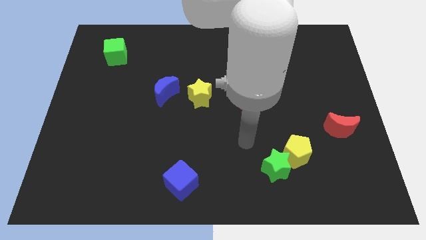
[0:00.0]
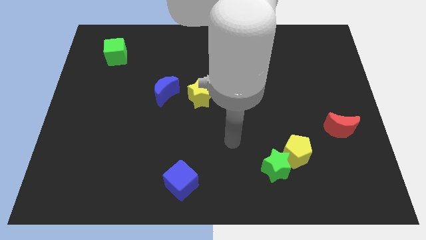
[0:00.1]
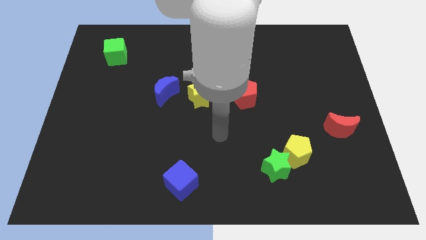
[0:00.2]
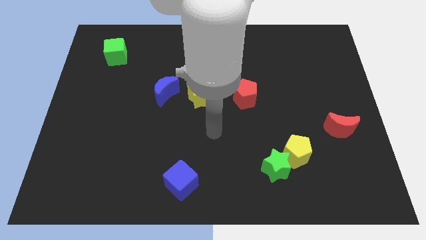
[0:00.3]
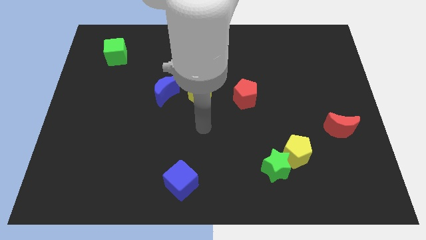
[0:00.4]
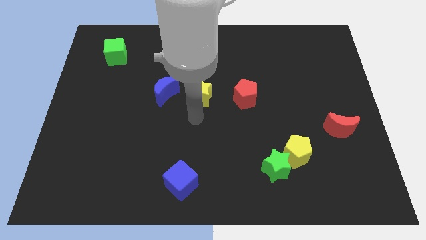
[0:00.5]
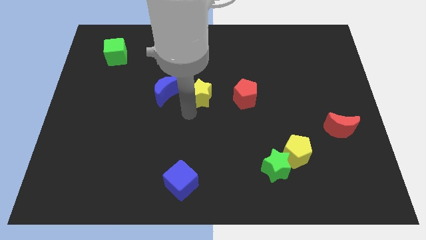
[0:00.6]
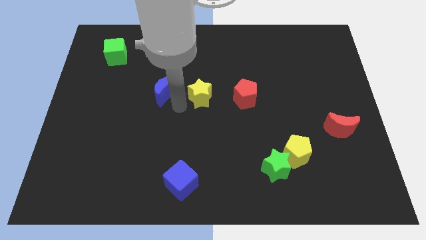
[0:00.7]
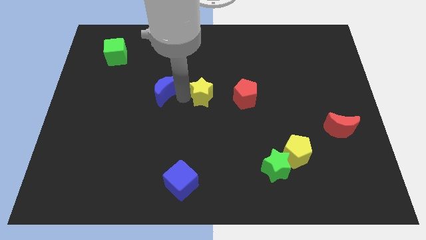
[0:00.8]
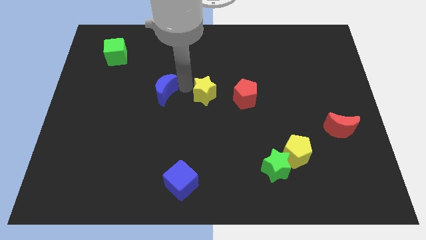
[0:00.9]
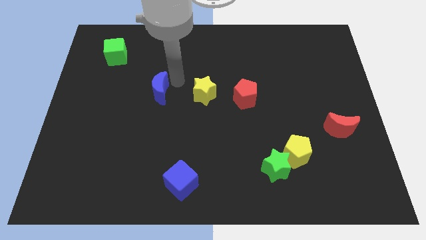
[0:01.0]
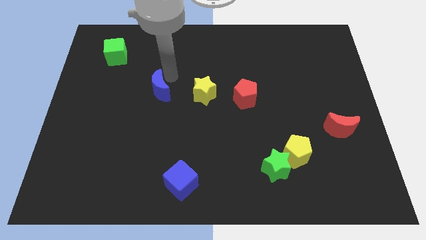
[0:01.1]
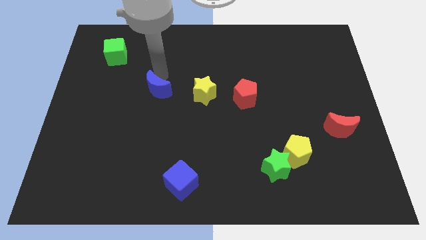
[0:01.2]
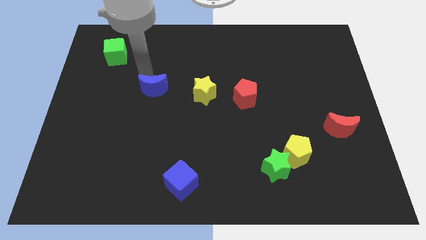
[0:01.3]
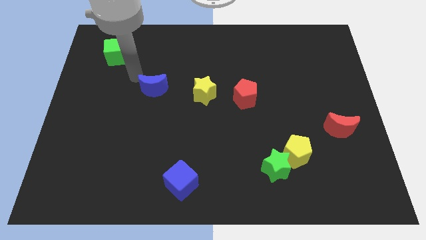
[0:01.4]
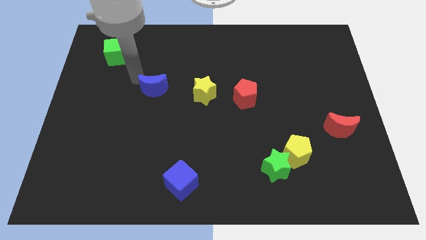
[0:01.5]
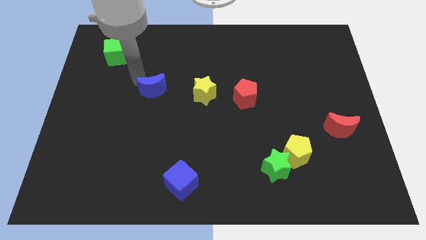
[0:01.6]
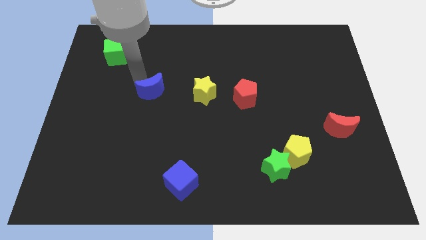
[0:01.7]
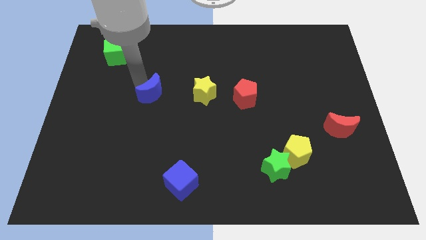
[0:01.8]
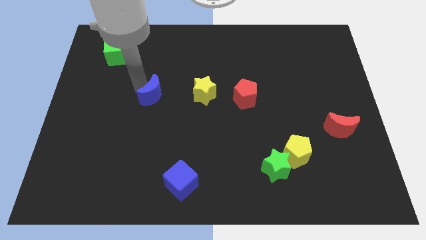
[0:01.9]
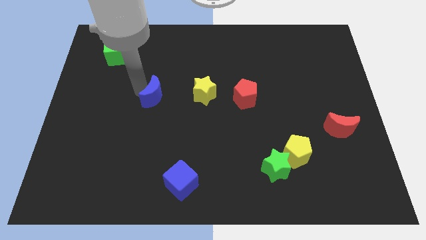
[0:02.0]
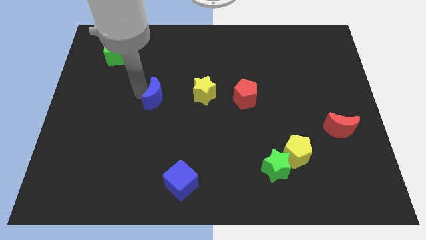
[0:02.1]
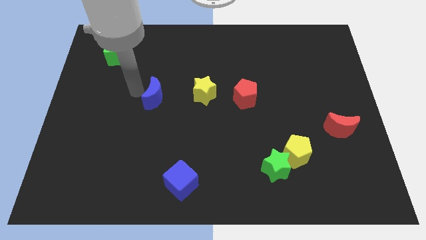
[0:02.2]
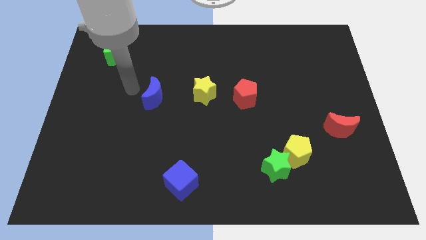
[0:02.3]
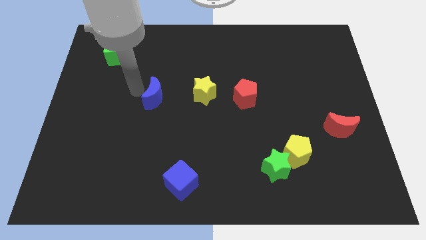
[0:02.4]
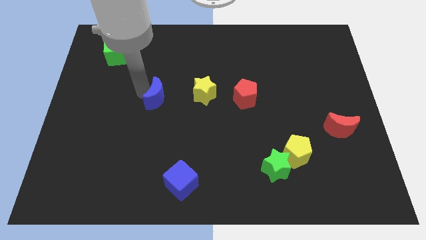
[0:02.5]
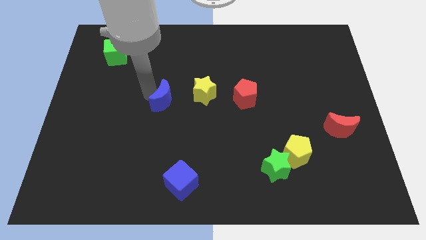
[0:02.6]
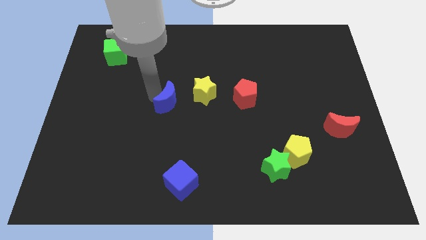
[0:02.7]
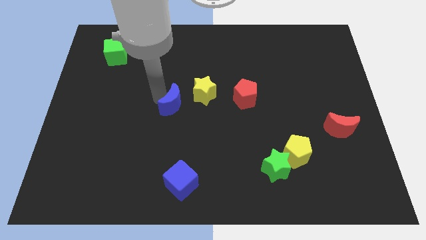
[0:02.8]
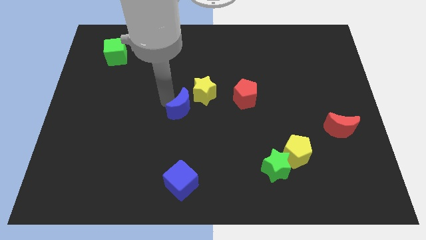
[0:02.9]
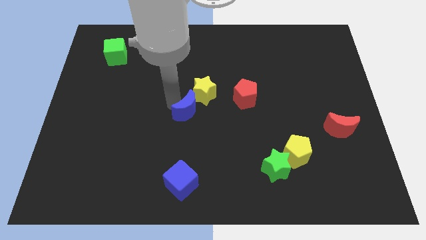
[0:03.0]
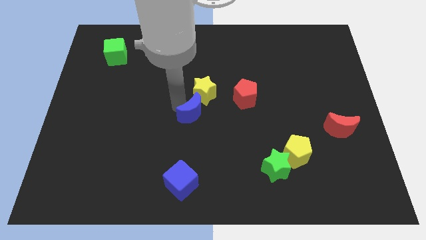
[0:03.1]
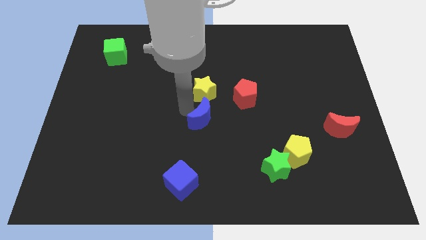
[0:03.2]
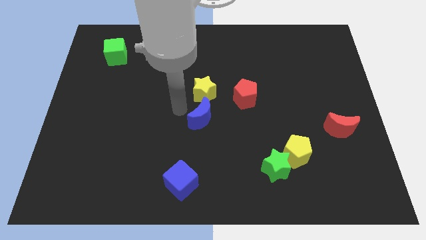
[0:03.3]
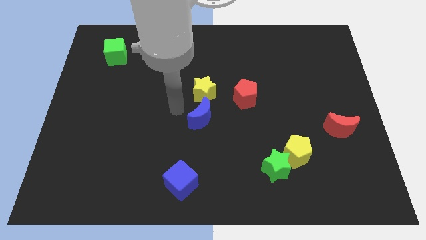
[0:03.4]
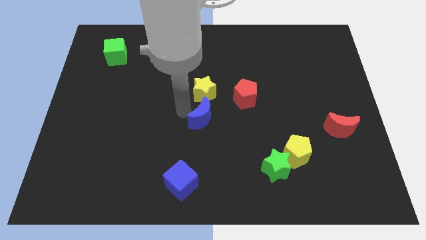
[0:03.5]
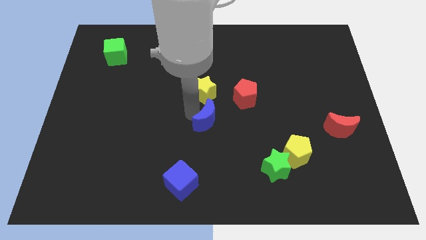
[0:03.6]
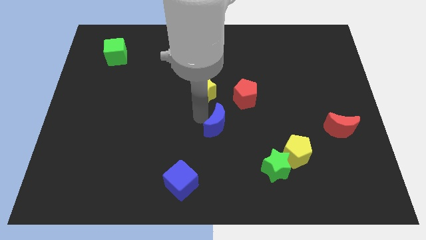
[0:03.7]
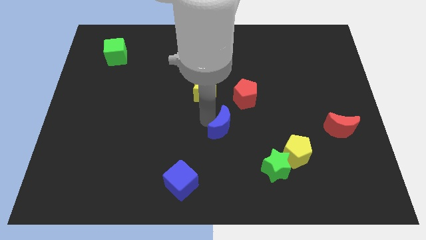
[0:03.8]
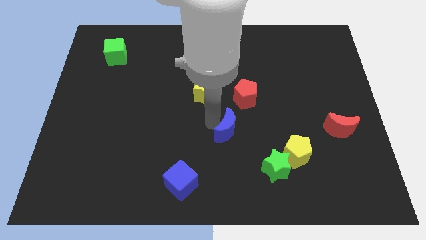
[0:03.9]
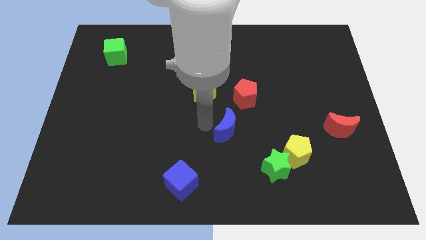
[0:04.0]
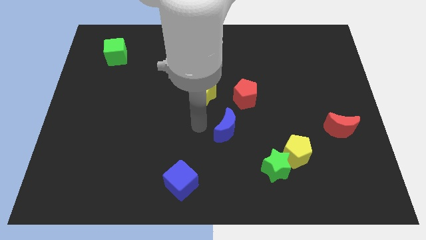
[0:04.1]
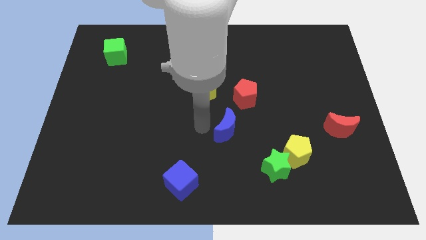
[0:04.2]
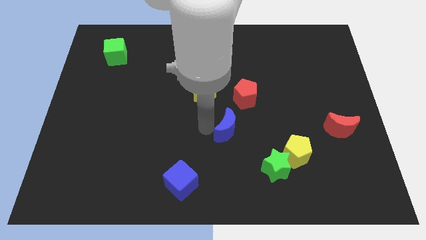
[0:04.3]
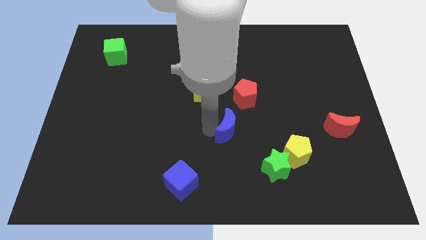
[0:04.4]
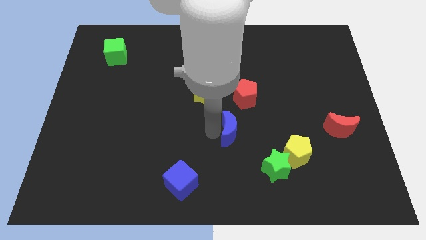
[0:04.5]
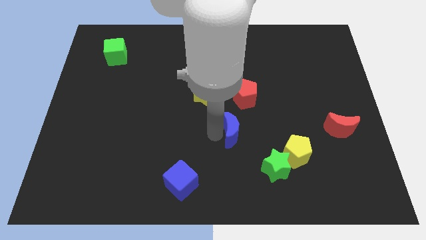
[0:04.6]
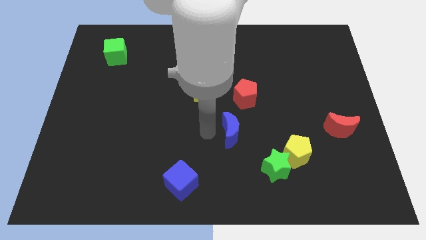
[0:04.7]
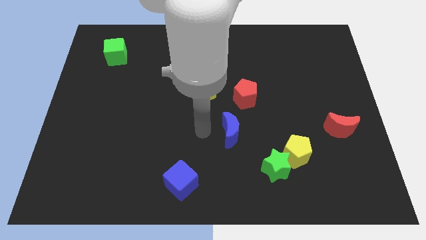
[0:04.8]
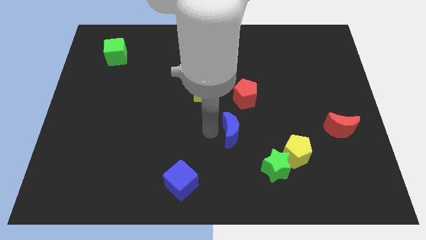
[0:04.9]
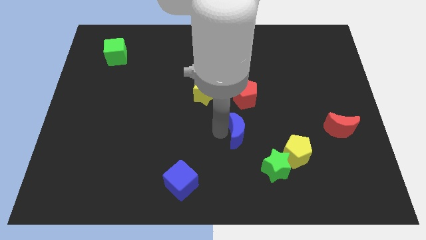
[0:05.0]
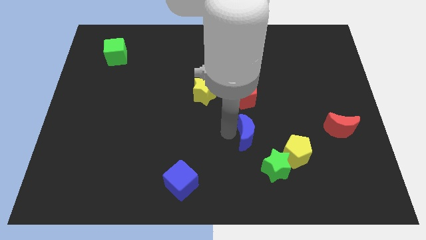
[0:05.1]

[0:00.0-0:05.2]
move the blue moon to the top left of the yellow pentagon

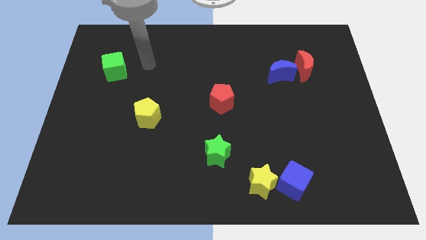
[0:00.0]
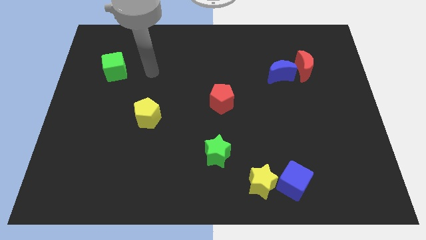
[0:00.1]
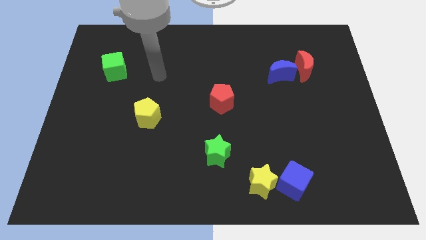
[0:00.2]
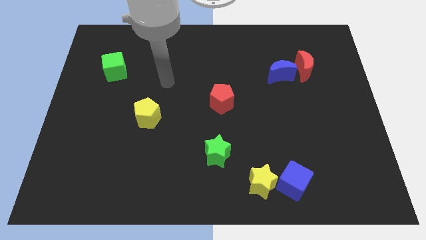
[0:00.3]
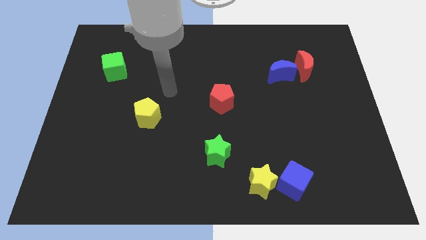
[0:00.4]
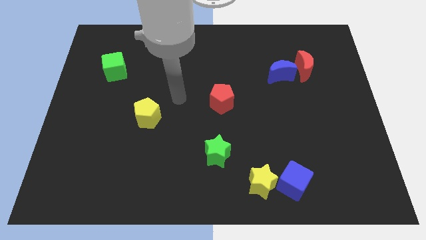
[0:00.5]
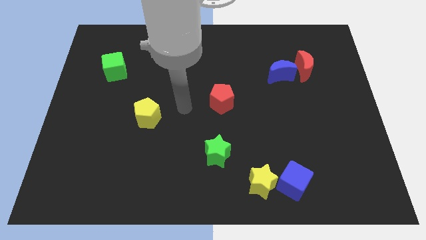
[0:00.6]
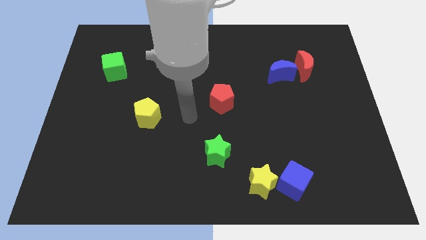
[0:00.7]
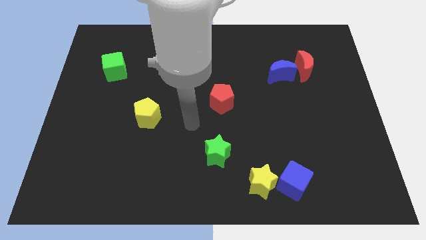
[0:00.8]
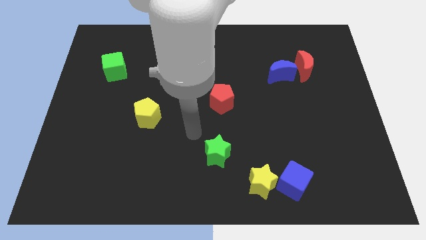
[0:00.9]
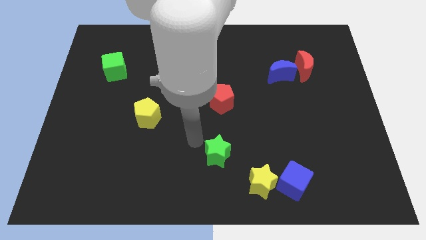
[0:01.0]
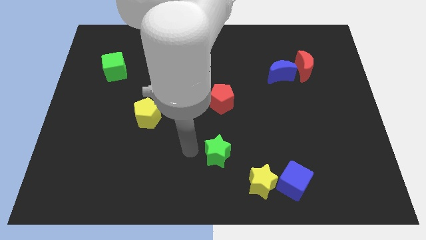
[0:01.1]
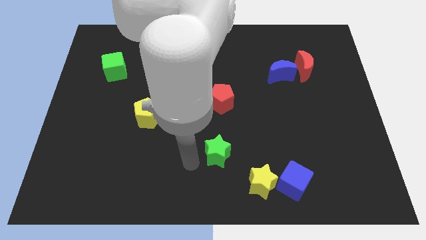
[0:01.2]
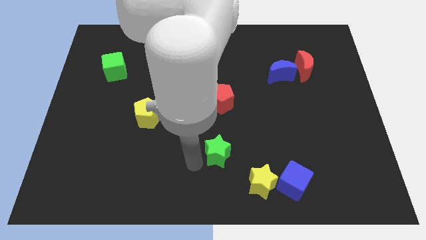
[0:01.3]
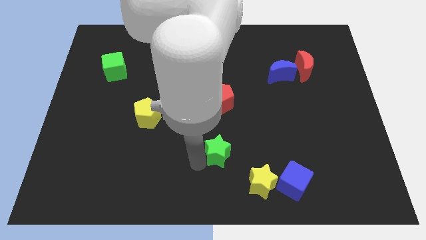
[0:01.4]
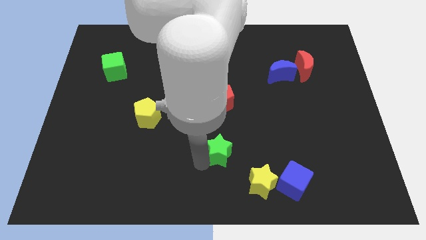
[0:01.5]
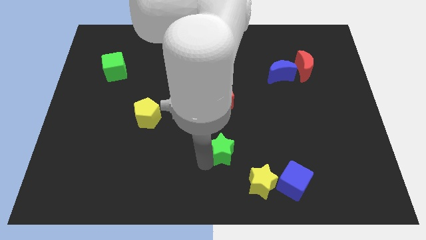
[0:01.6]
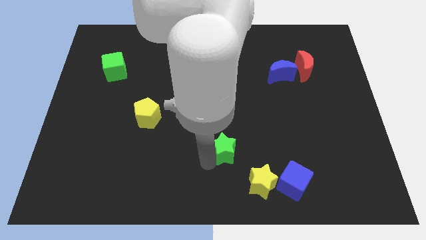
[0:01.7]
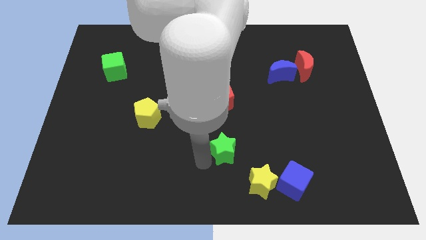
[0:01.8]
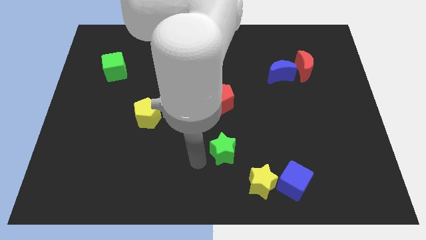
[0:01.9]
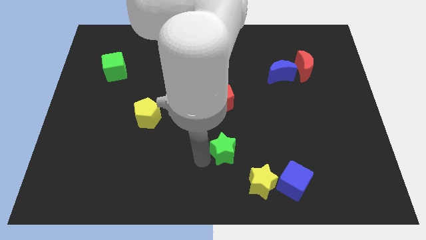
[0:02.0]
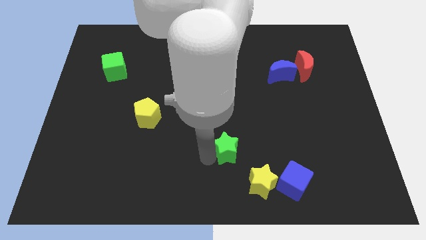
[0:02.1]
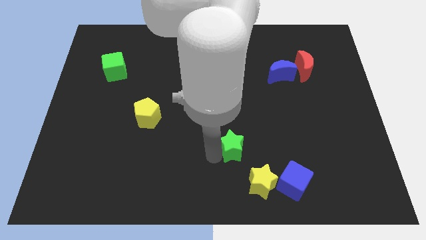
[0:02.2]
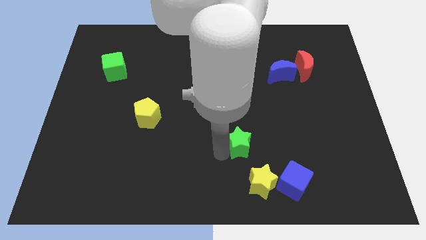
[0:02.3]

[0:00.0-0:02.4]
slide the green star to the top of the yellow star
